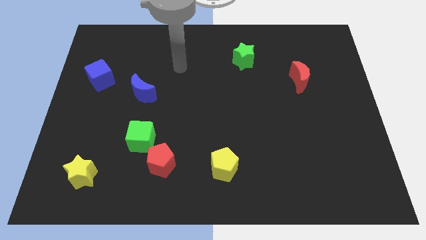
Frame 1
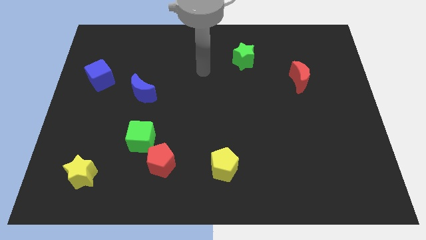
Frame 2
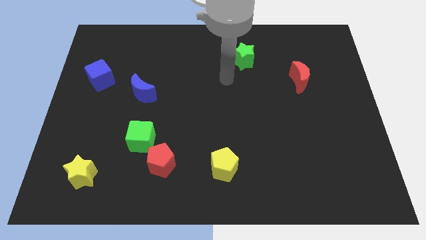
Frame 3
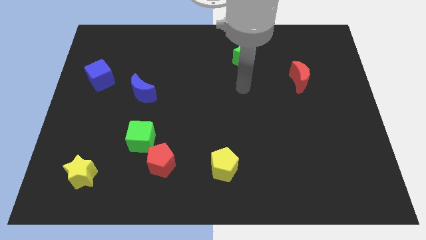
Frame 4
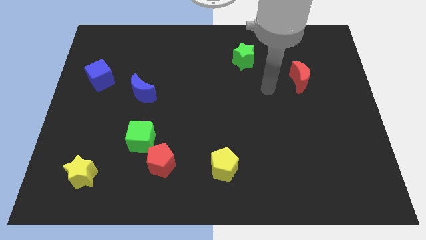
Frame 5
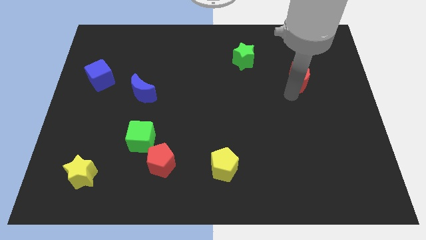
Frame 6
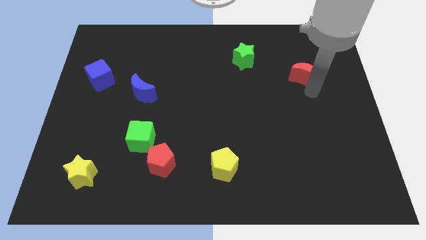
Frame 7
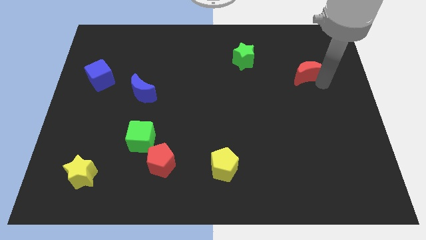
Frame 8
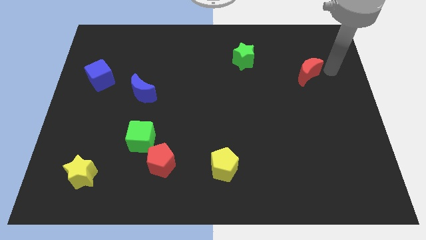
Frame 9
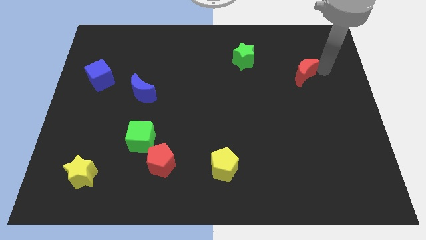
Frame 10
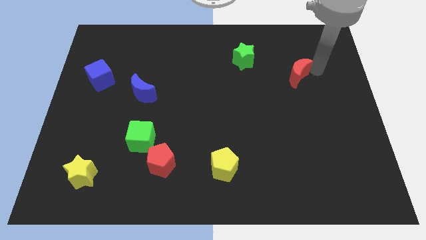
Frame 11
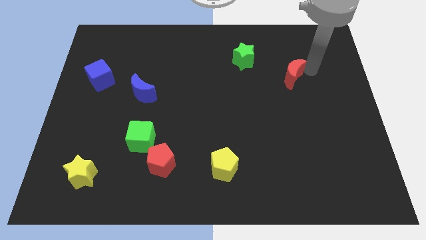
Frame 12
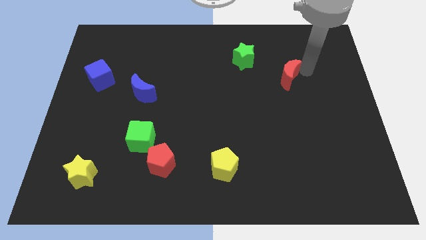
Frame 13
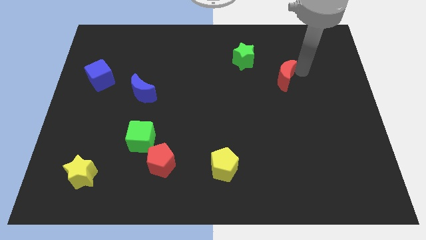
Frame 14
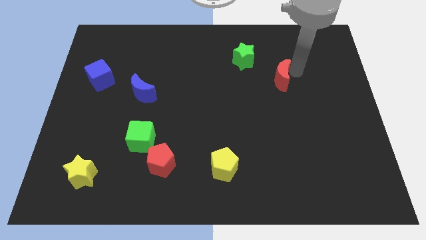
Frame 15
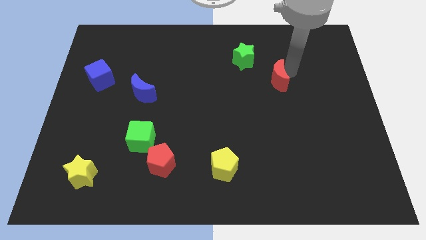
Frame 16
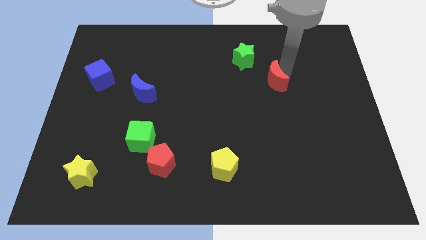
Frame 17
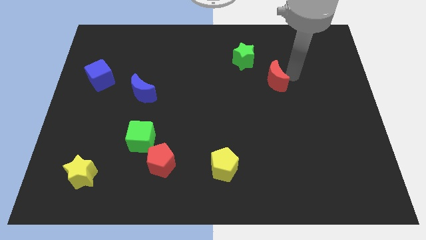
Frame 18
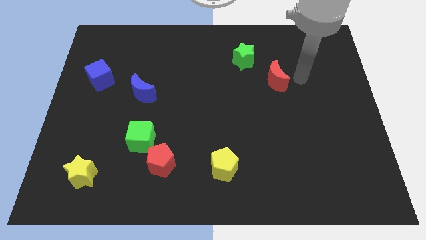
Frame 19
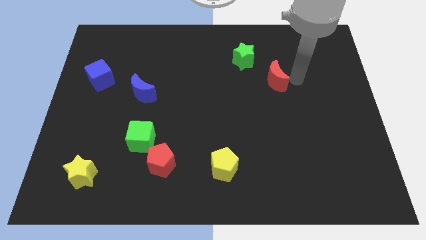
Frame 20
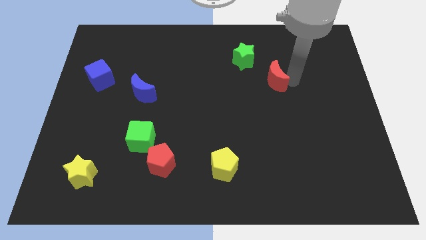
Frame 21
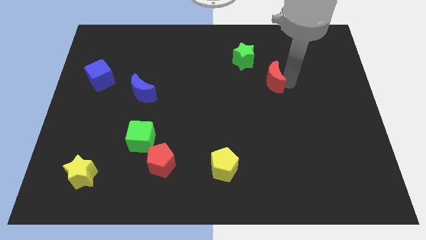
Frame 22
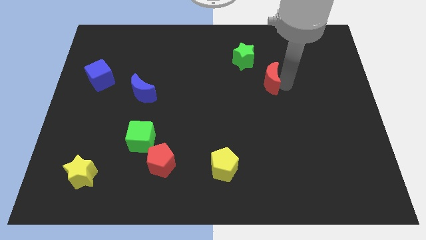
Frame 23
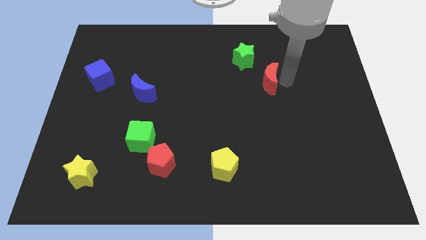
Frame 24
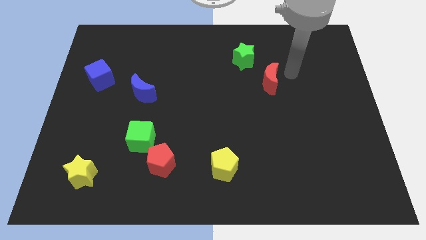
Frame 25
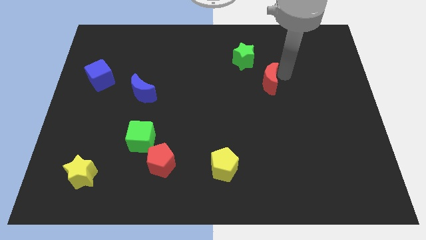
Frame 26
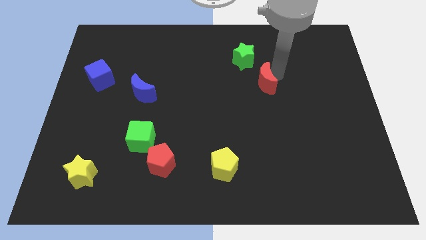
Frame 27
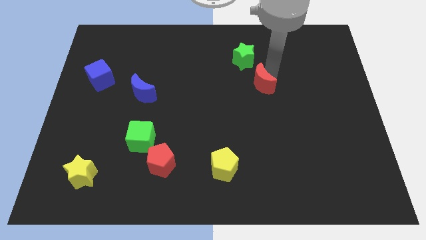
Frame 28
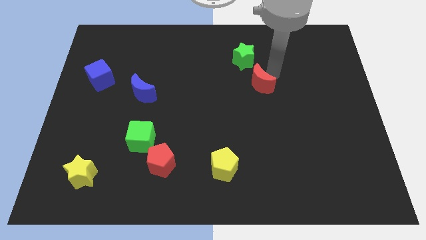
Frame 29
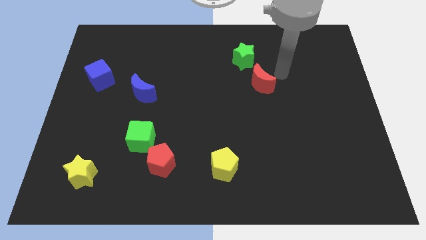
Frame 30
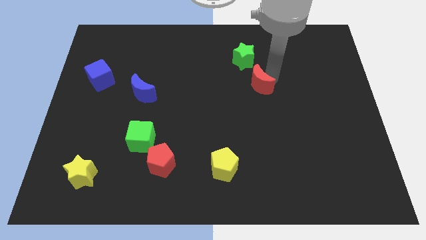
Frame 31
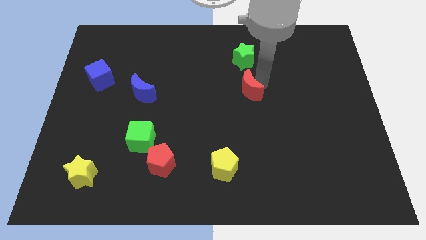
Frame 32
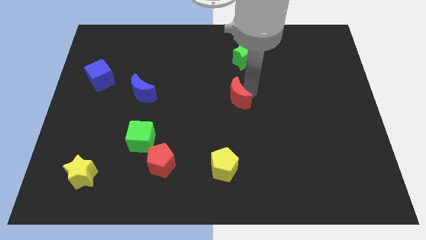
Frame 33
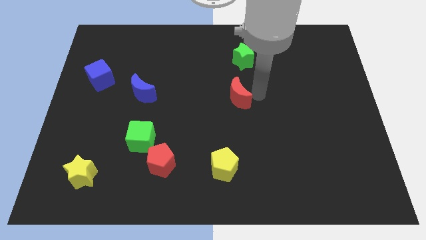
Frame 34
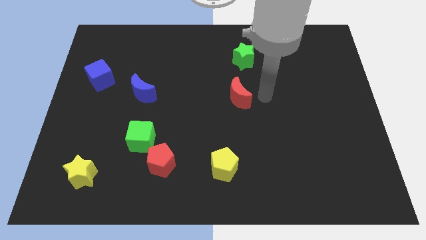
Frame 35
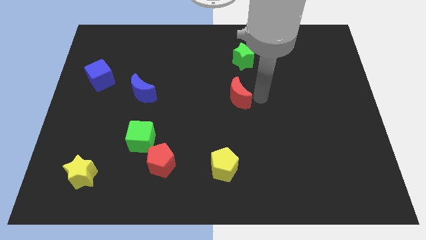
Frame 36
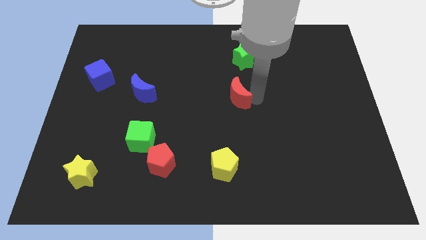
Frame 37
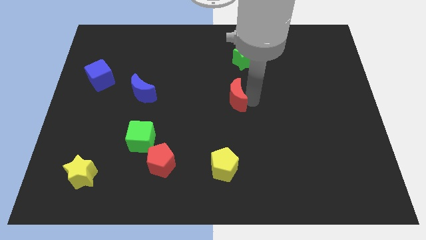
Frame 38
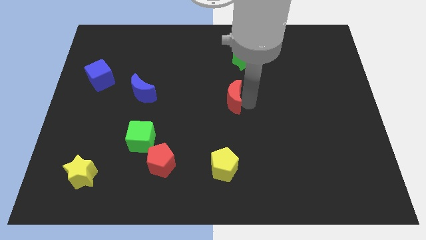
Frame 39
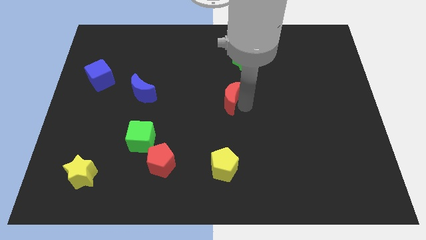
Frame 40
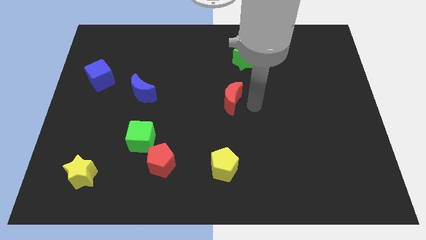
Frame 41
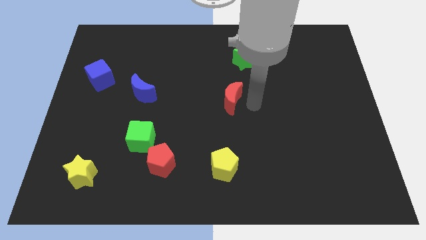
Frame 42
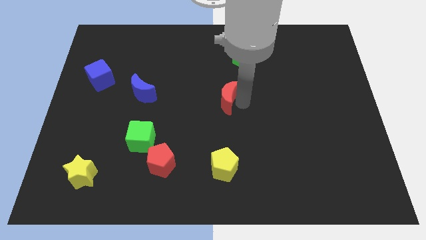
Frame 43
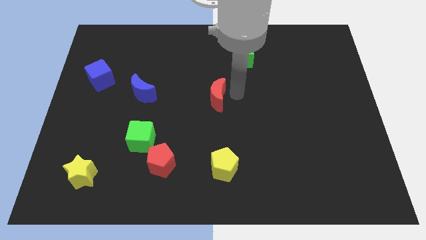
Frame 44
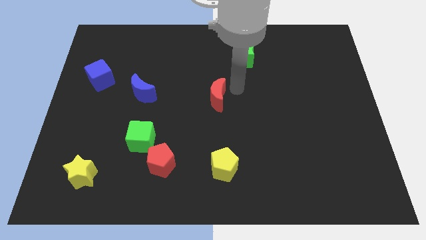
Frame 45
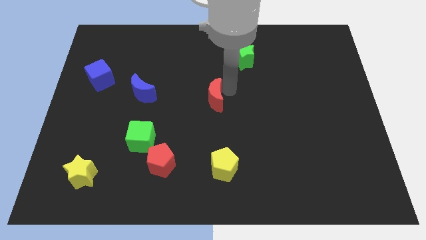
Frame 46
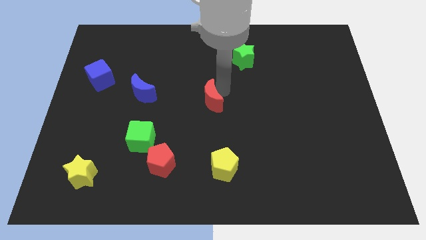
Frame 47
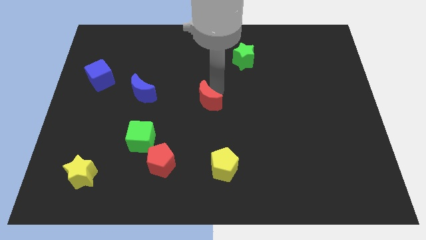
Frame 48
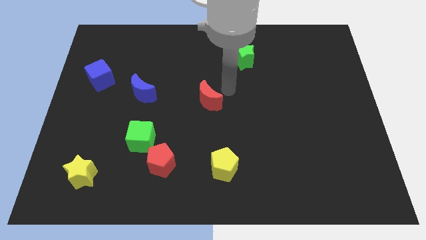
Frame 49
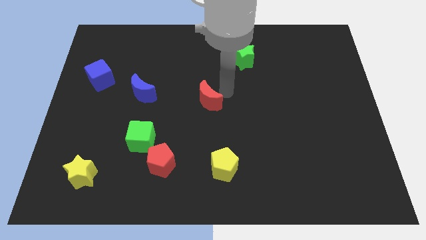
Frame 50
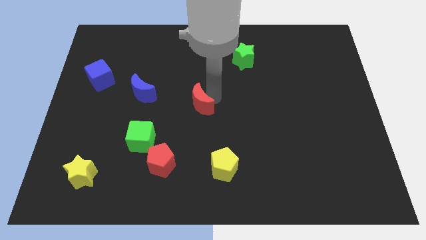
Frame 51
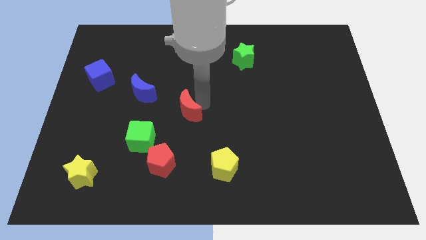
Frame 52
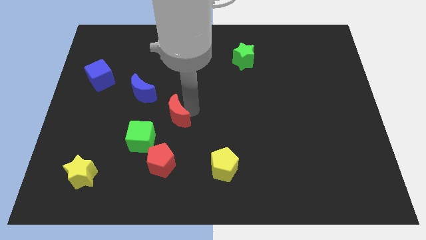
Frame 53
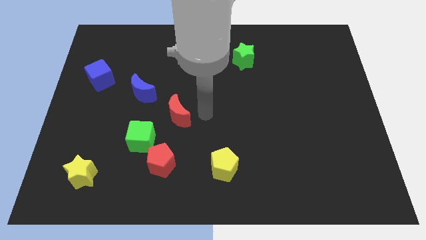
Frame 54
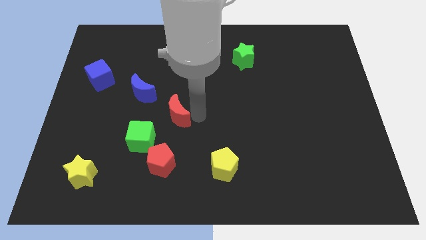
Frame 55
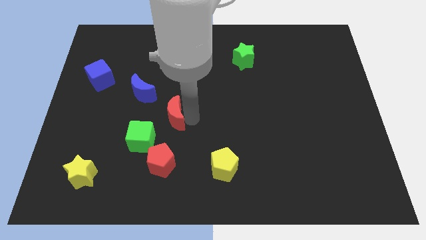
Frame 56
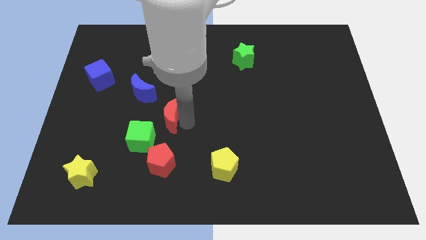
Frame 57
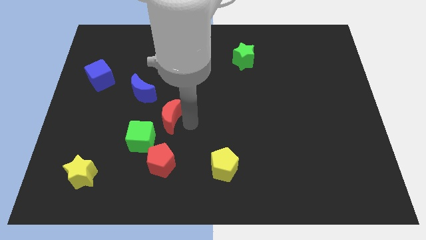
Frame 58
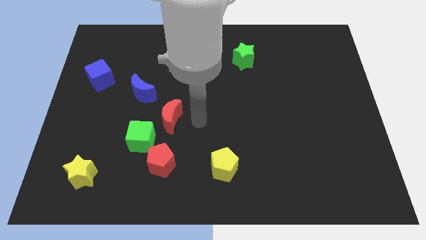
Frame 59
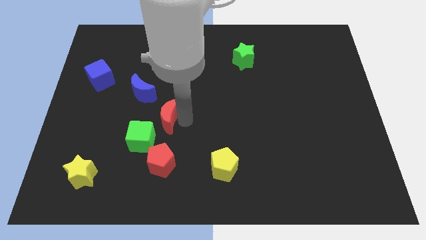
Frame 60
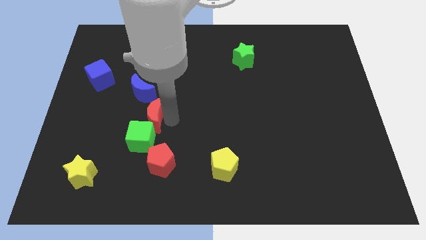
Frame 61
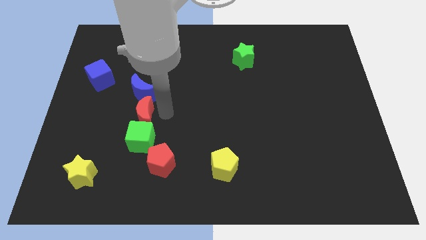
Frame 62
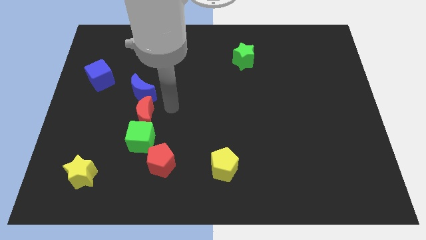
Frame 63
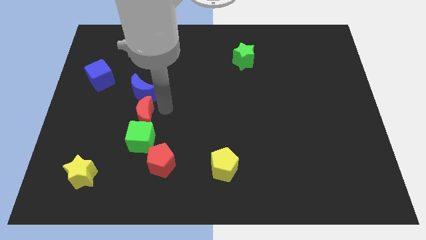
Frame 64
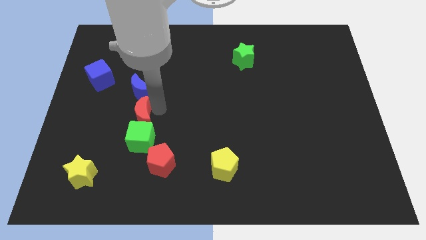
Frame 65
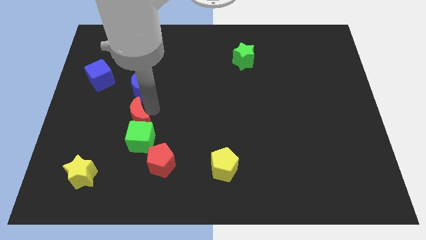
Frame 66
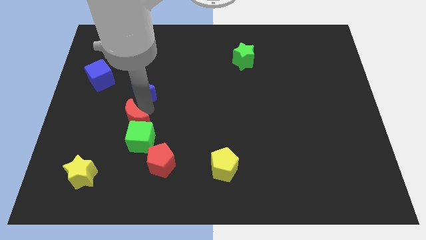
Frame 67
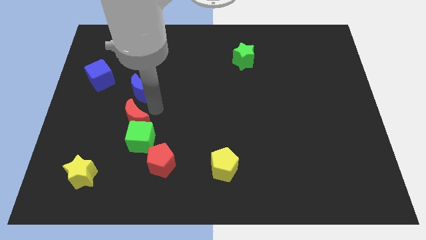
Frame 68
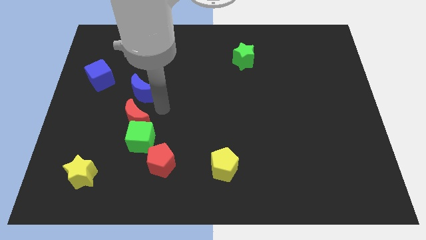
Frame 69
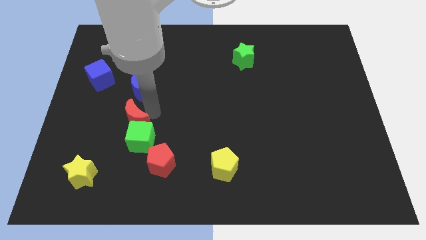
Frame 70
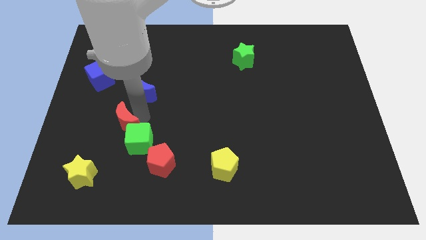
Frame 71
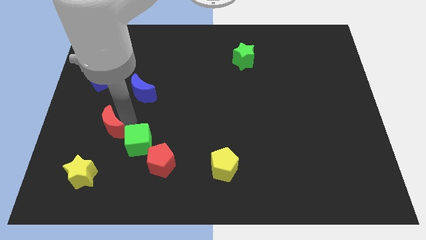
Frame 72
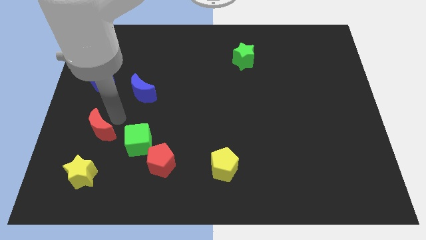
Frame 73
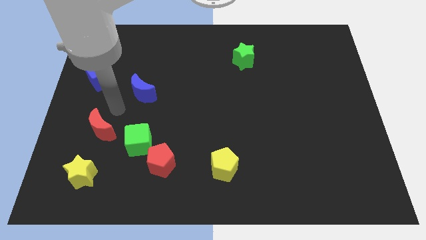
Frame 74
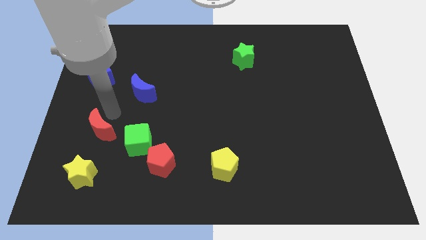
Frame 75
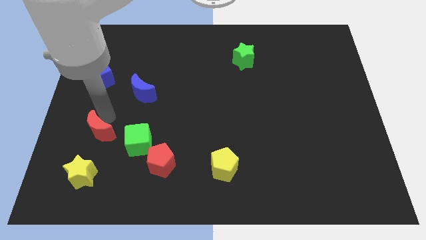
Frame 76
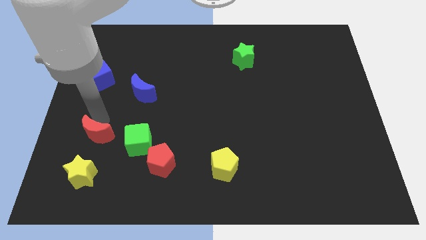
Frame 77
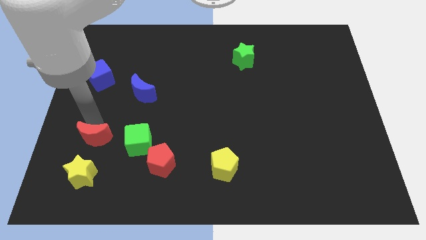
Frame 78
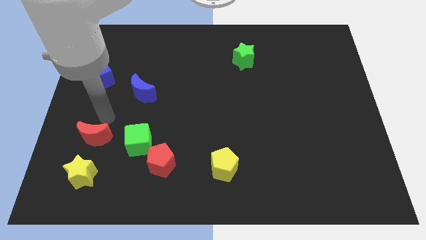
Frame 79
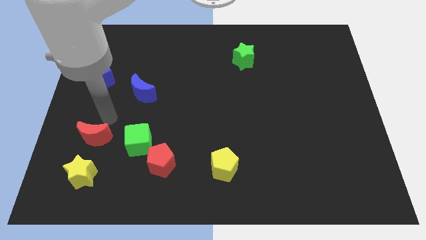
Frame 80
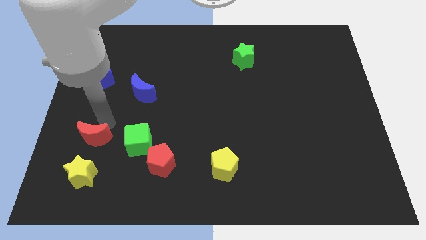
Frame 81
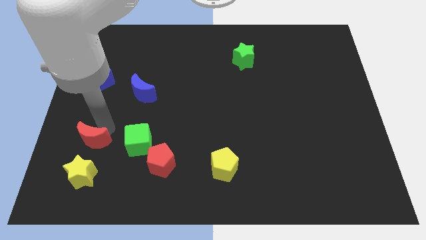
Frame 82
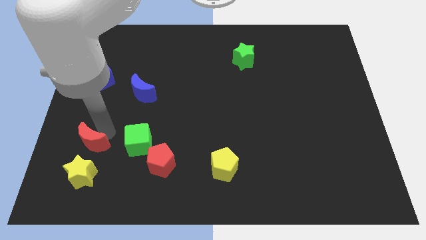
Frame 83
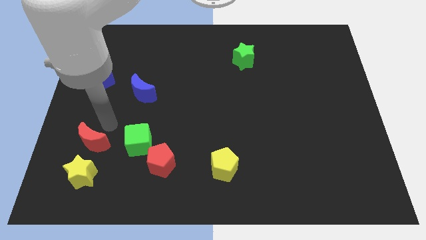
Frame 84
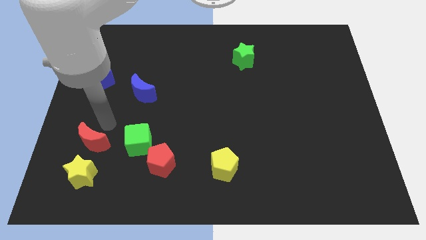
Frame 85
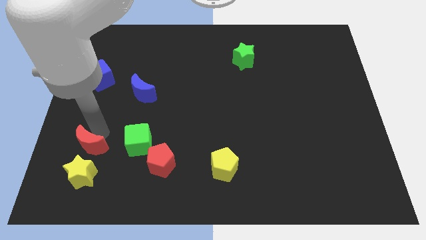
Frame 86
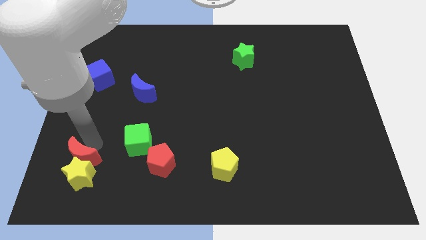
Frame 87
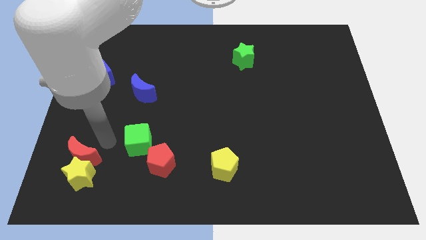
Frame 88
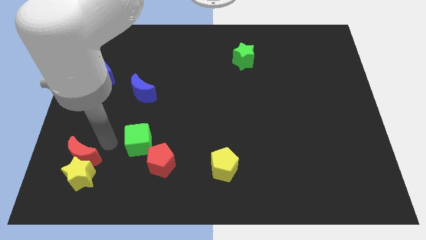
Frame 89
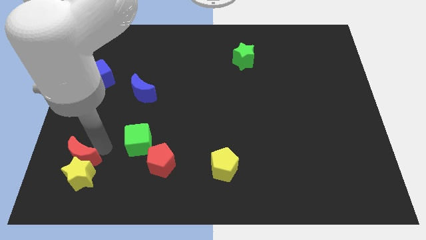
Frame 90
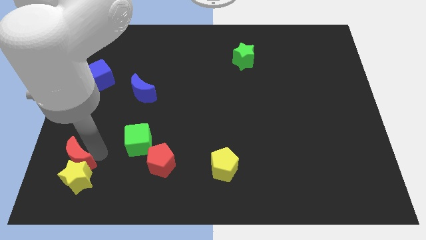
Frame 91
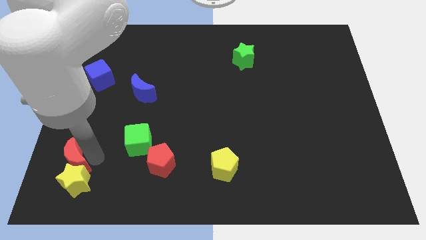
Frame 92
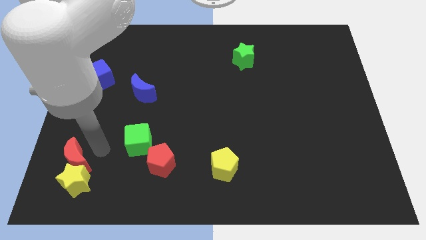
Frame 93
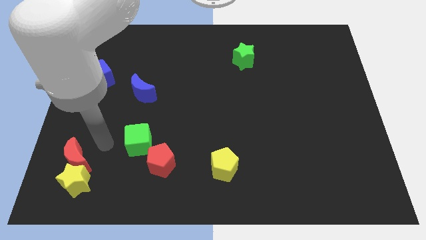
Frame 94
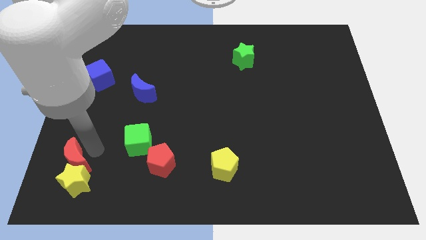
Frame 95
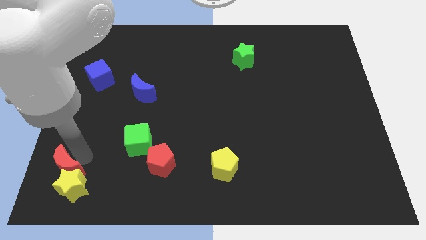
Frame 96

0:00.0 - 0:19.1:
move the red moon to the bottom left of the board
